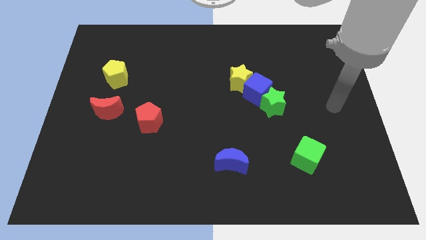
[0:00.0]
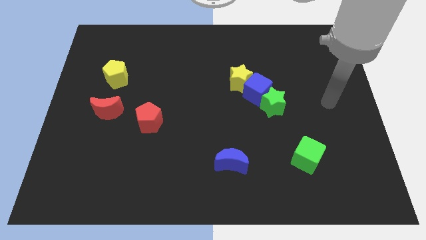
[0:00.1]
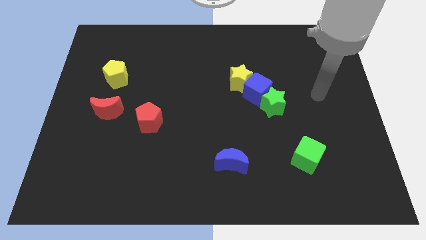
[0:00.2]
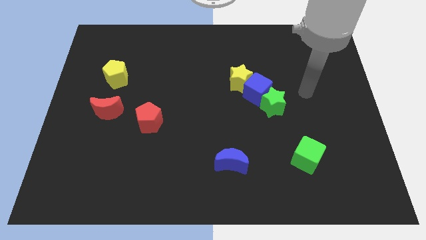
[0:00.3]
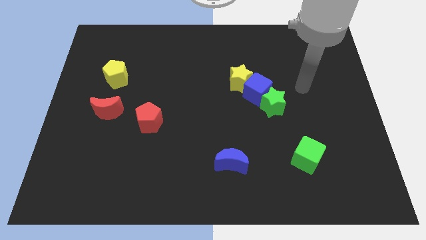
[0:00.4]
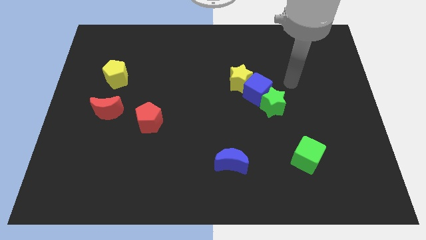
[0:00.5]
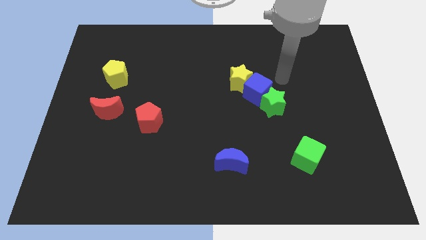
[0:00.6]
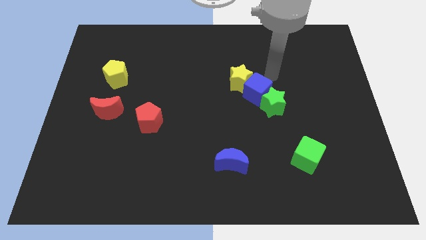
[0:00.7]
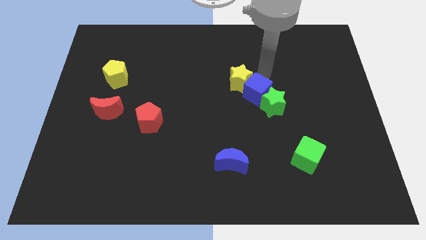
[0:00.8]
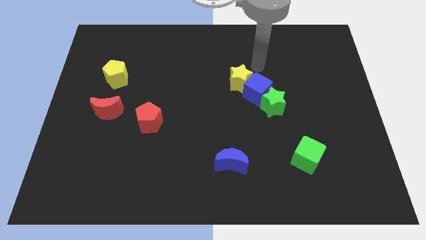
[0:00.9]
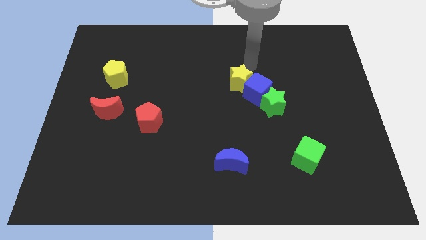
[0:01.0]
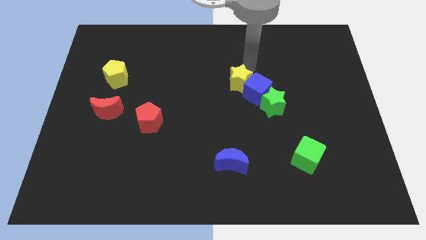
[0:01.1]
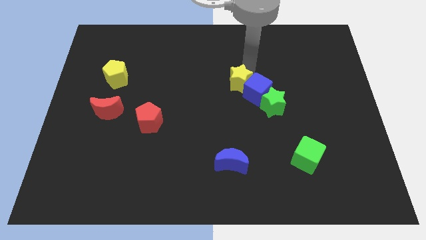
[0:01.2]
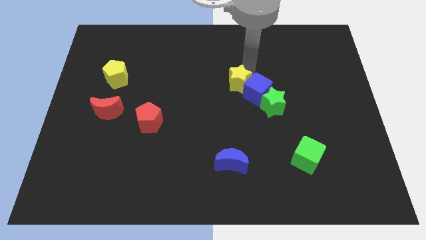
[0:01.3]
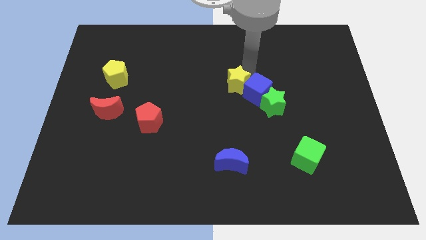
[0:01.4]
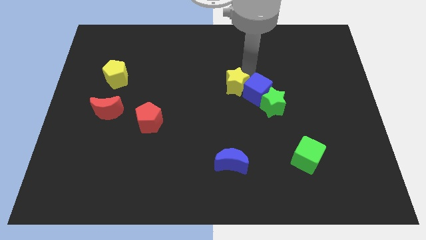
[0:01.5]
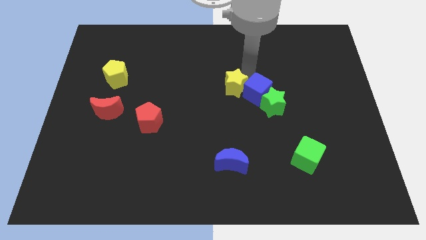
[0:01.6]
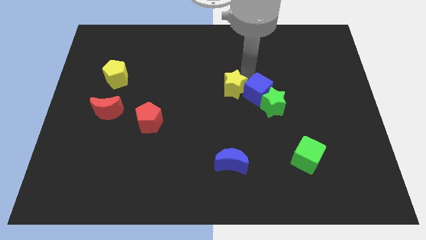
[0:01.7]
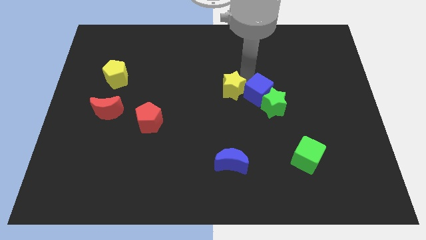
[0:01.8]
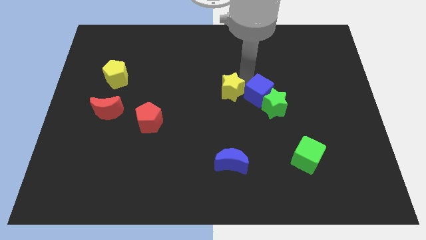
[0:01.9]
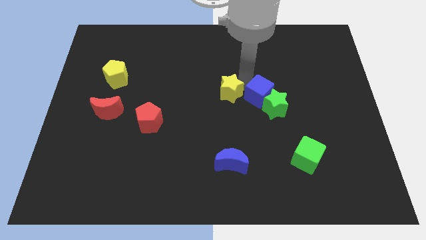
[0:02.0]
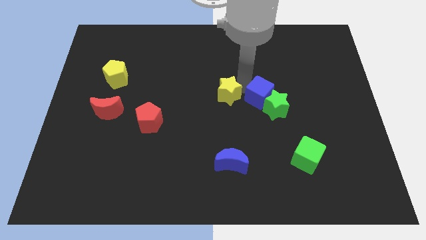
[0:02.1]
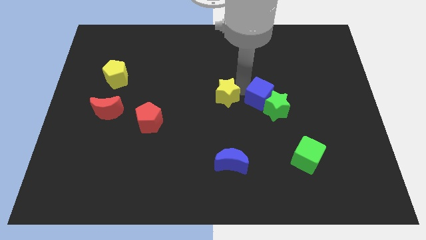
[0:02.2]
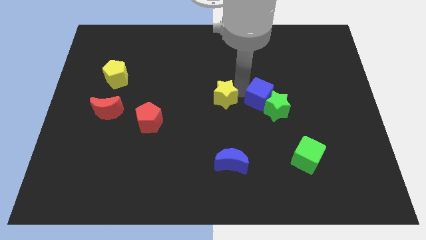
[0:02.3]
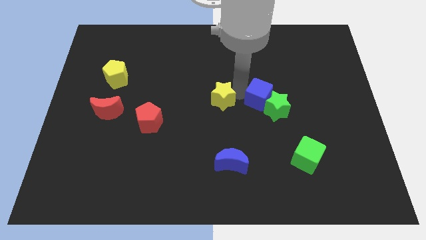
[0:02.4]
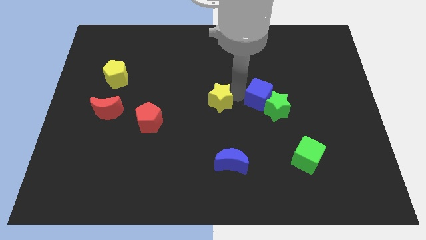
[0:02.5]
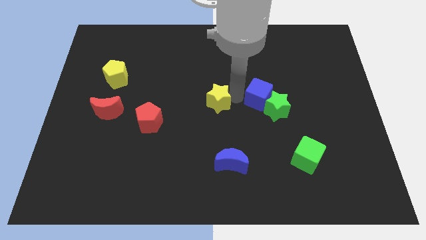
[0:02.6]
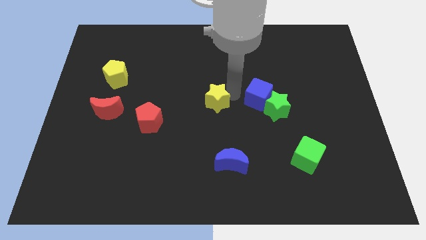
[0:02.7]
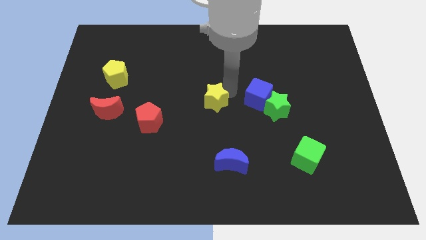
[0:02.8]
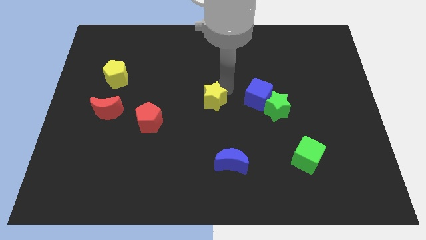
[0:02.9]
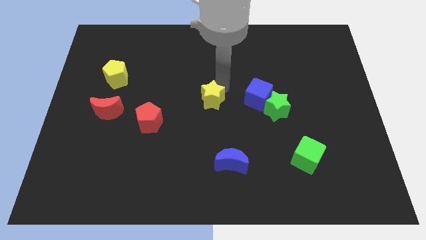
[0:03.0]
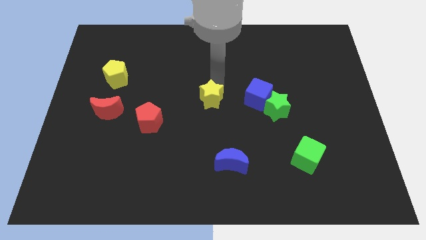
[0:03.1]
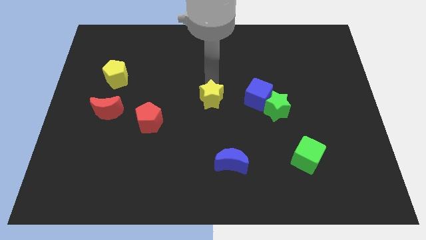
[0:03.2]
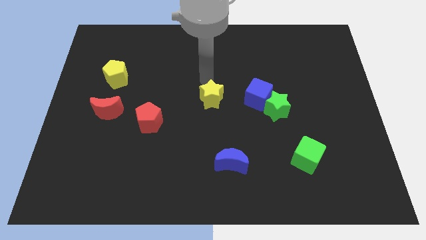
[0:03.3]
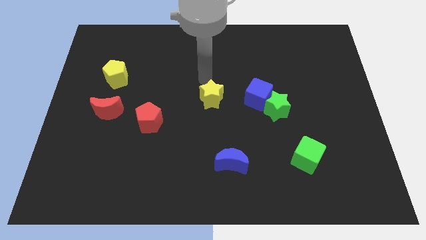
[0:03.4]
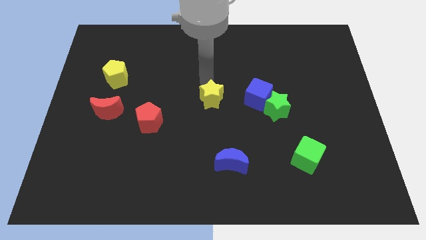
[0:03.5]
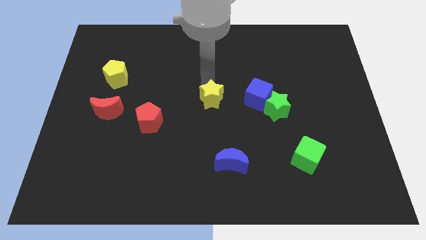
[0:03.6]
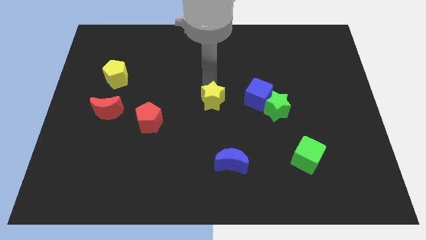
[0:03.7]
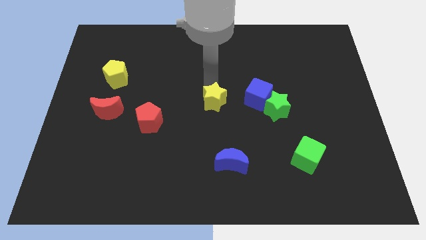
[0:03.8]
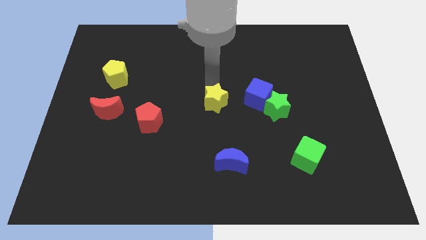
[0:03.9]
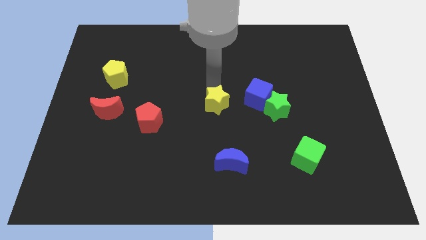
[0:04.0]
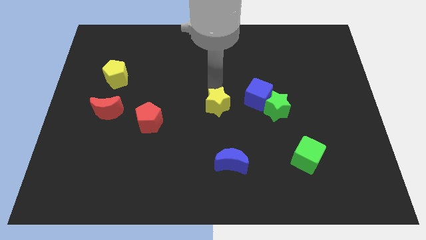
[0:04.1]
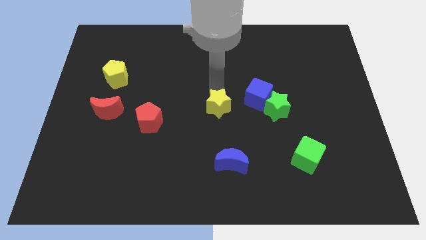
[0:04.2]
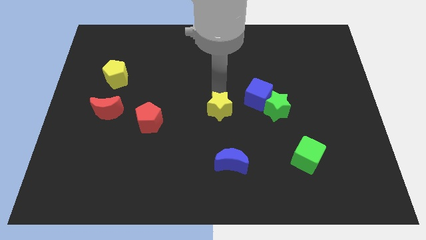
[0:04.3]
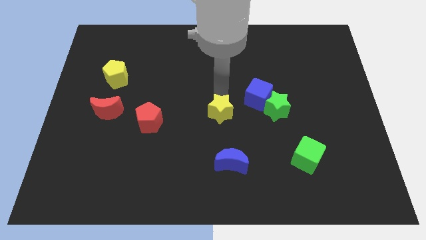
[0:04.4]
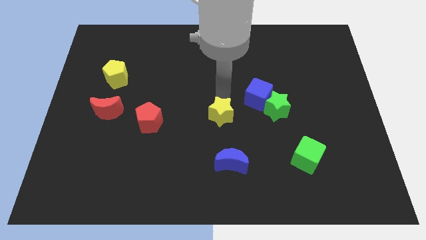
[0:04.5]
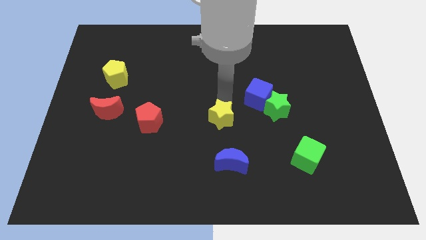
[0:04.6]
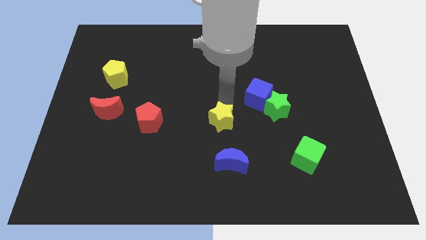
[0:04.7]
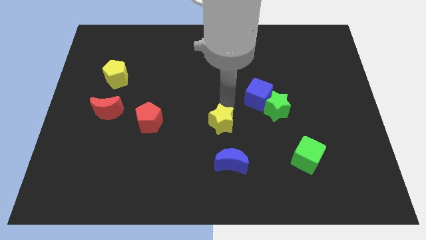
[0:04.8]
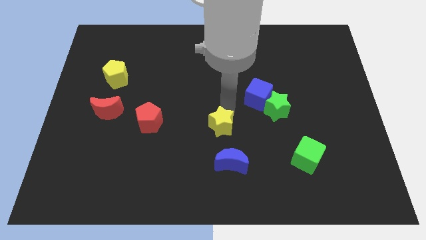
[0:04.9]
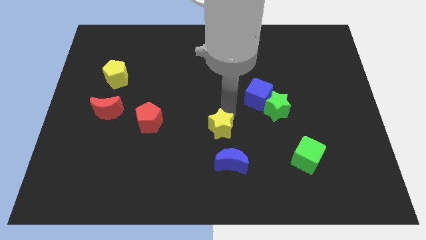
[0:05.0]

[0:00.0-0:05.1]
put the yellow star diagonally up and to the left of the blue moon

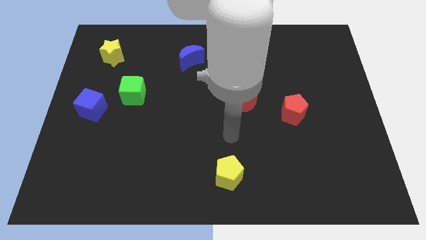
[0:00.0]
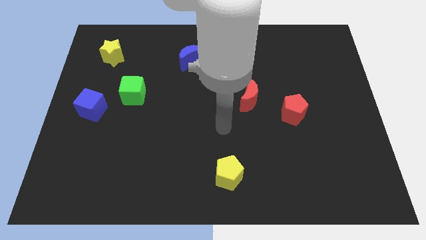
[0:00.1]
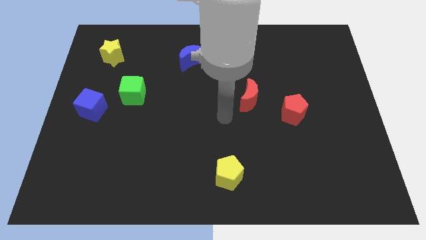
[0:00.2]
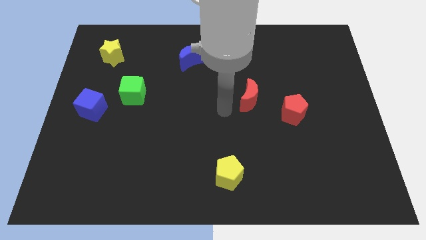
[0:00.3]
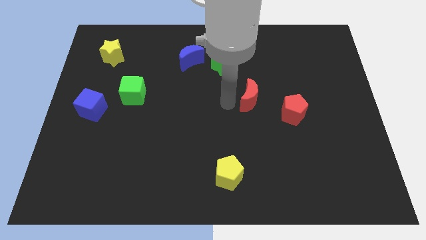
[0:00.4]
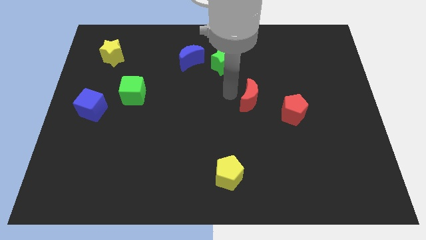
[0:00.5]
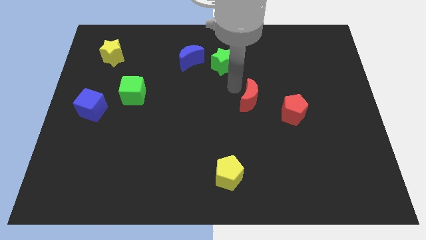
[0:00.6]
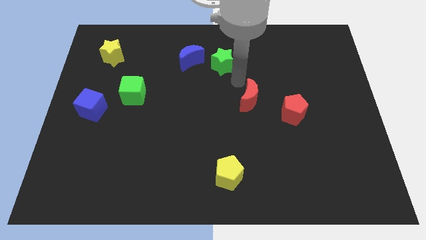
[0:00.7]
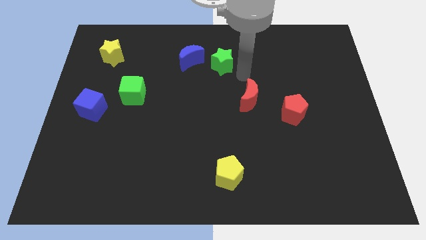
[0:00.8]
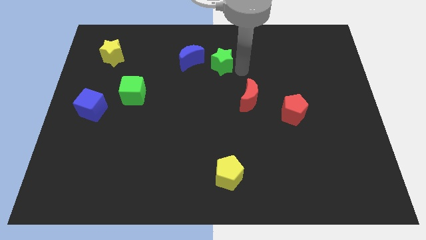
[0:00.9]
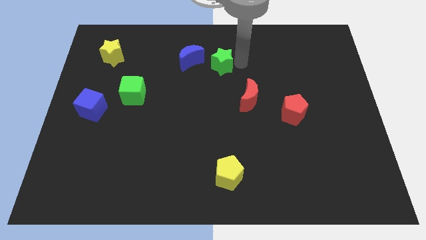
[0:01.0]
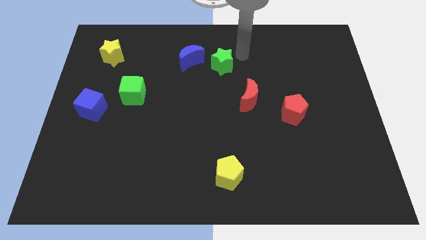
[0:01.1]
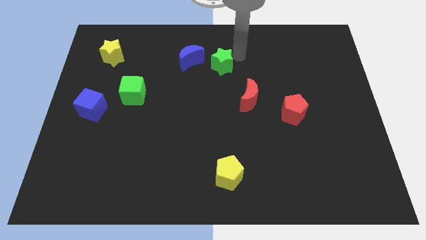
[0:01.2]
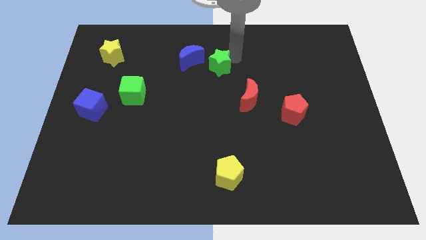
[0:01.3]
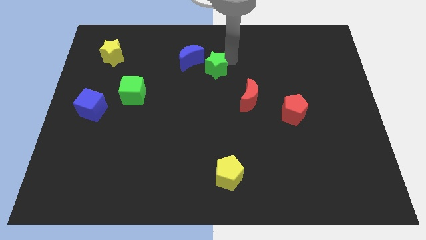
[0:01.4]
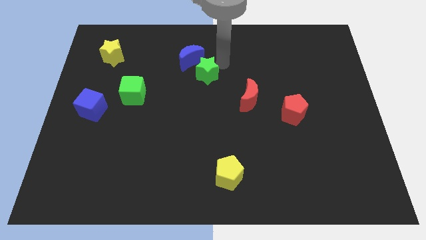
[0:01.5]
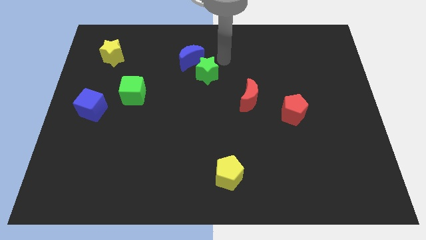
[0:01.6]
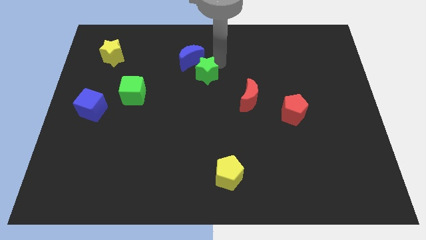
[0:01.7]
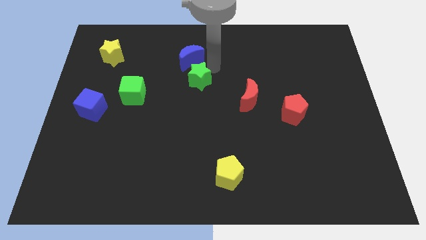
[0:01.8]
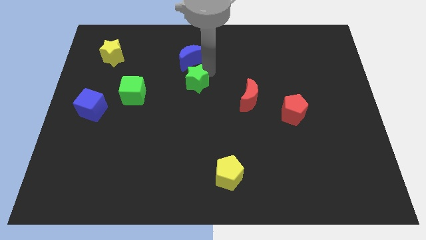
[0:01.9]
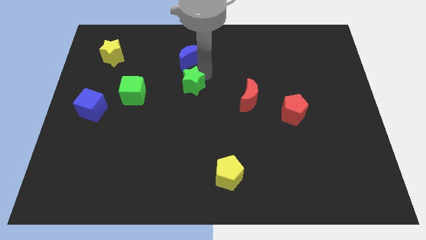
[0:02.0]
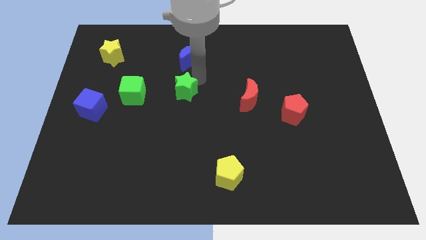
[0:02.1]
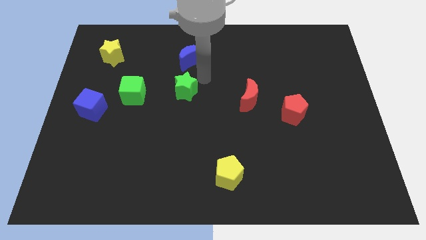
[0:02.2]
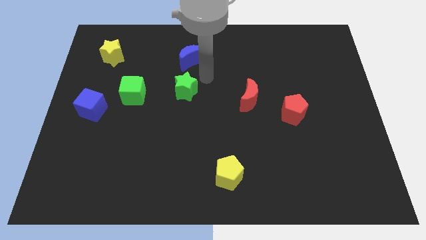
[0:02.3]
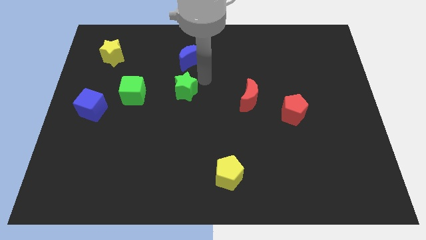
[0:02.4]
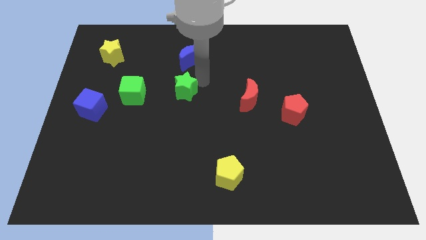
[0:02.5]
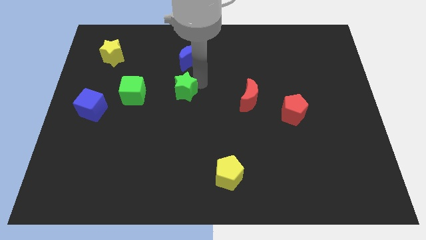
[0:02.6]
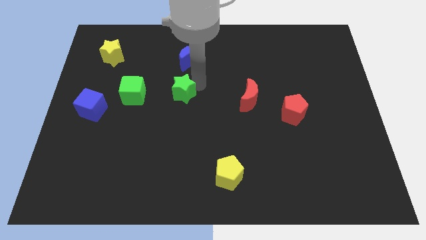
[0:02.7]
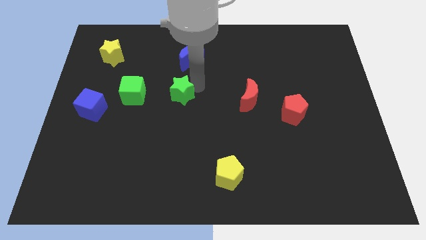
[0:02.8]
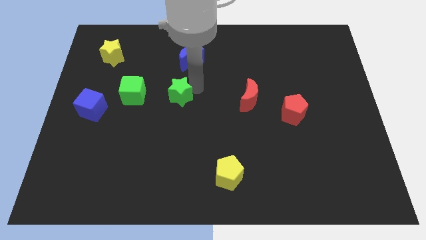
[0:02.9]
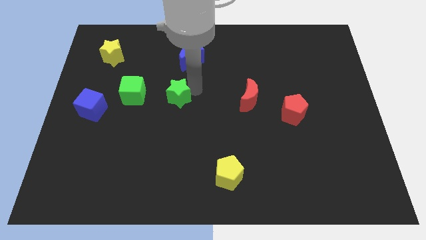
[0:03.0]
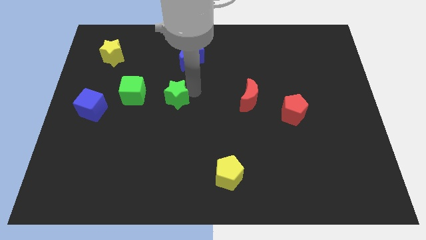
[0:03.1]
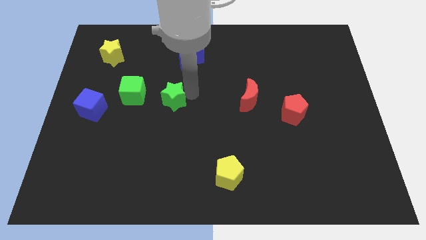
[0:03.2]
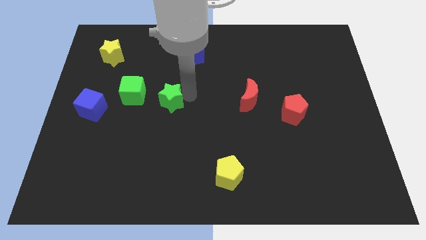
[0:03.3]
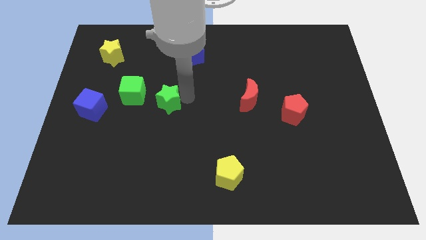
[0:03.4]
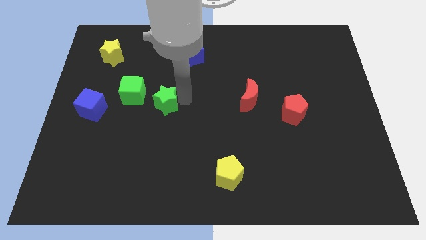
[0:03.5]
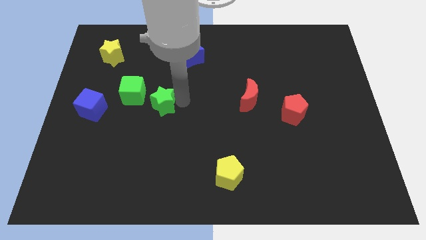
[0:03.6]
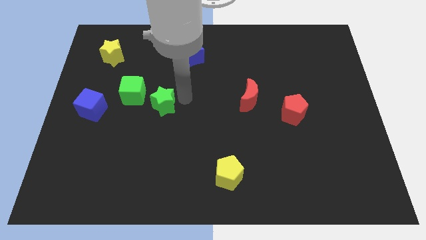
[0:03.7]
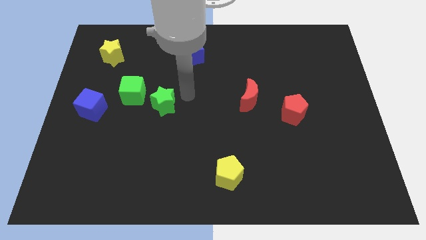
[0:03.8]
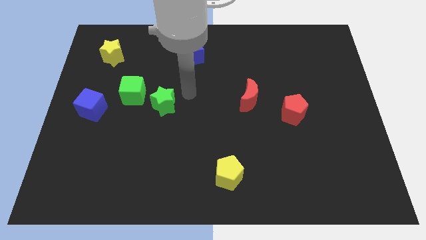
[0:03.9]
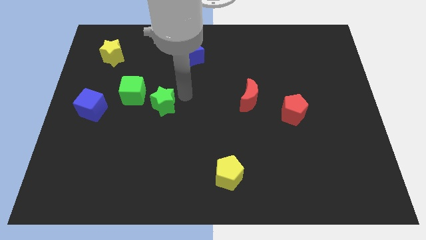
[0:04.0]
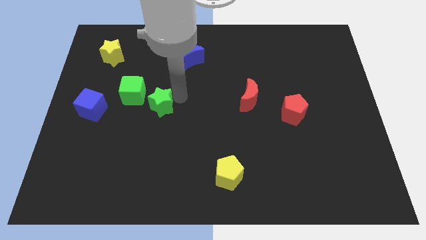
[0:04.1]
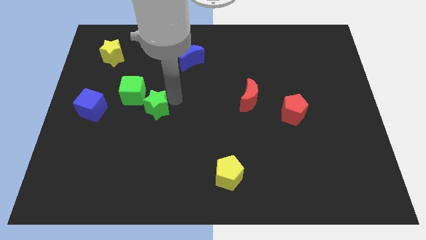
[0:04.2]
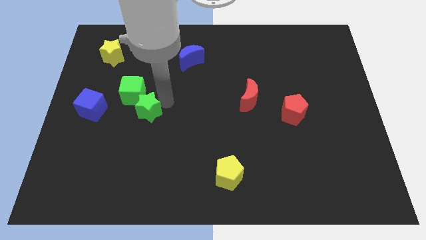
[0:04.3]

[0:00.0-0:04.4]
put the green star to the bottom of the green cube
